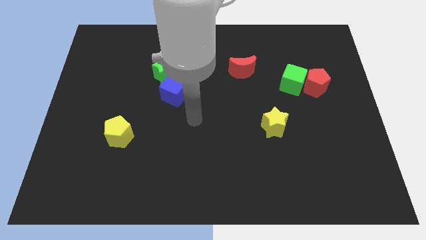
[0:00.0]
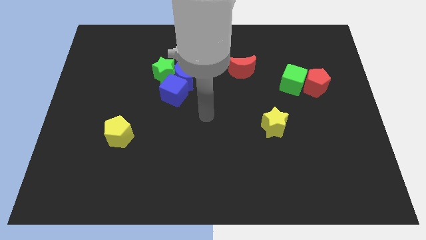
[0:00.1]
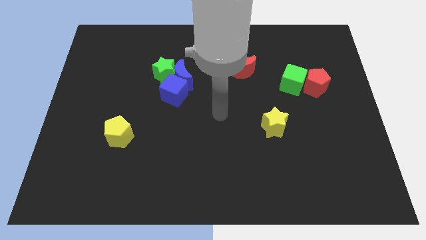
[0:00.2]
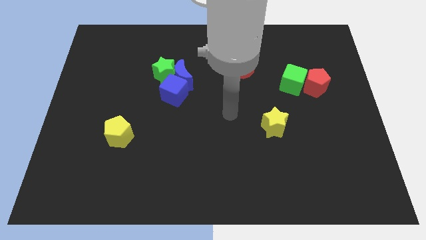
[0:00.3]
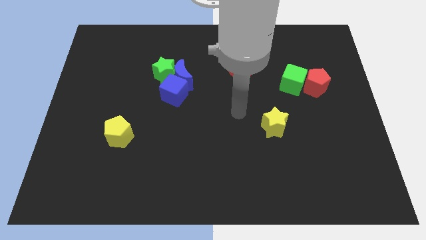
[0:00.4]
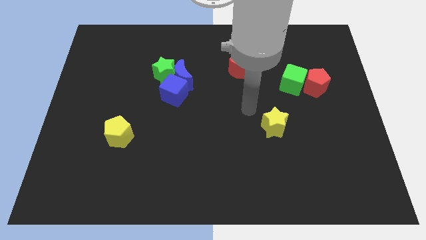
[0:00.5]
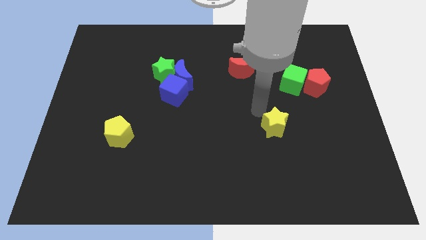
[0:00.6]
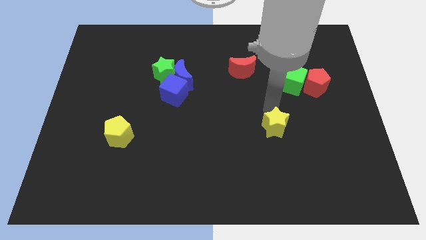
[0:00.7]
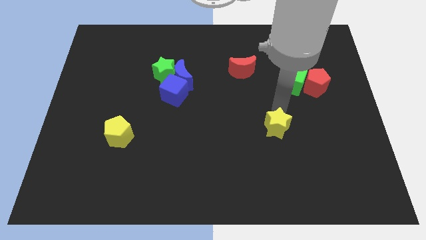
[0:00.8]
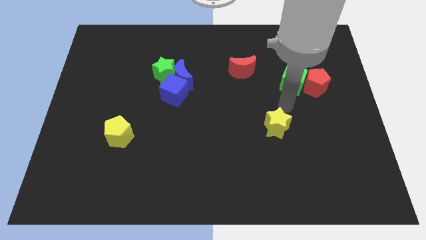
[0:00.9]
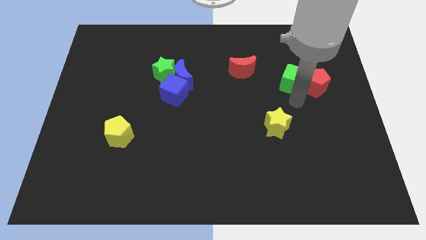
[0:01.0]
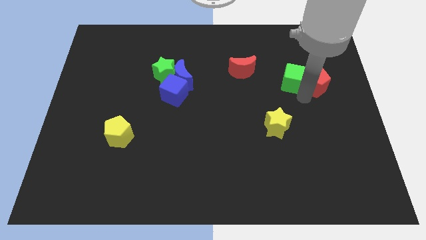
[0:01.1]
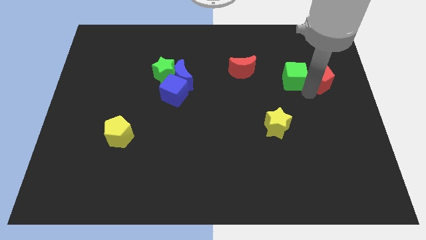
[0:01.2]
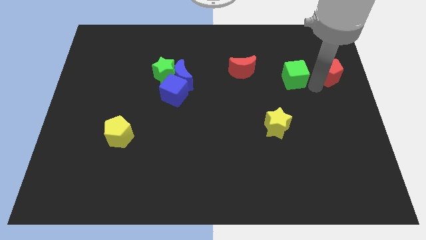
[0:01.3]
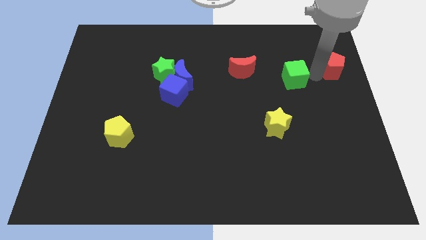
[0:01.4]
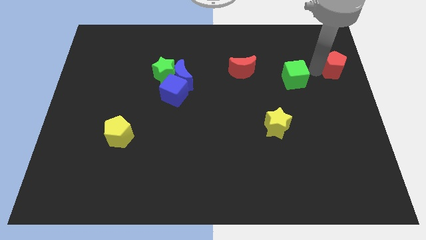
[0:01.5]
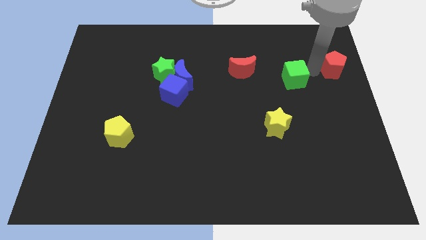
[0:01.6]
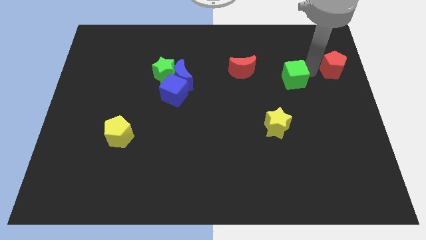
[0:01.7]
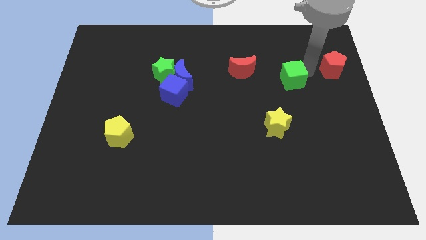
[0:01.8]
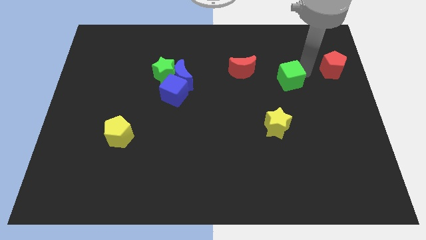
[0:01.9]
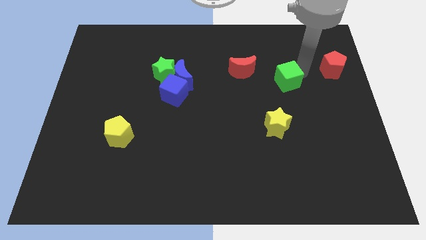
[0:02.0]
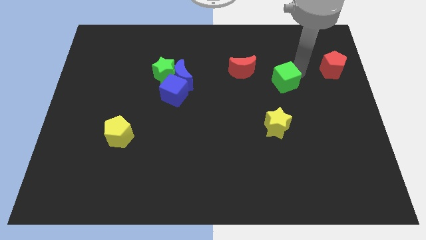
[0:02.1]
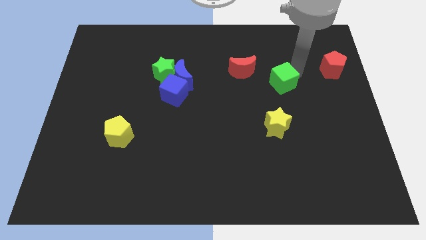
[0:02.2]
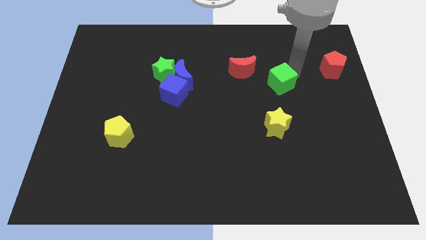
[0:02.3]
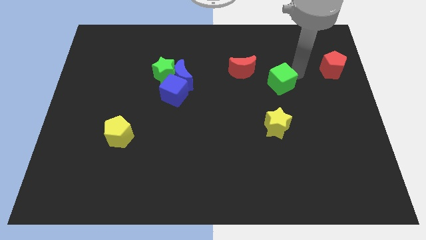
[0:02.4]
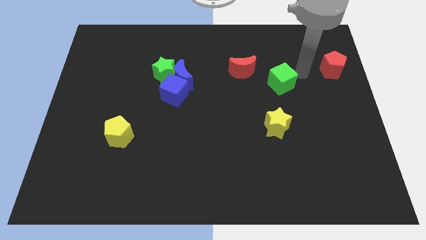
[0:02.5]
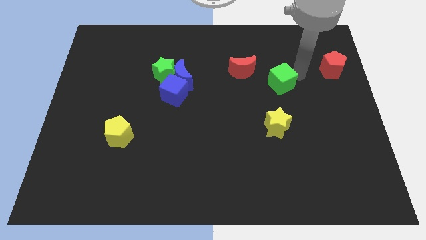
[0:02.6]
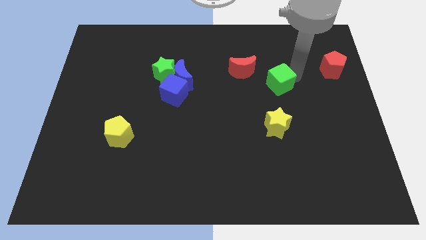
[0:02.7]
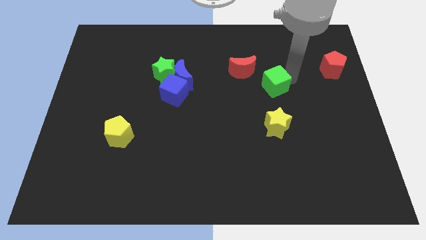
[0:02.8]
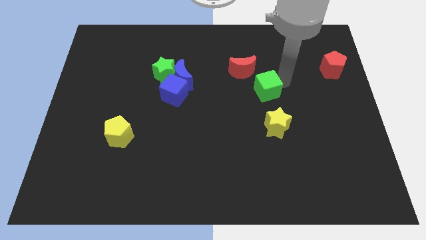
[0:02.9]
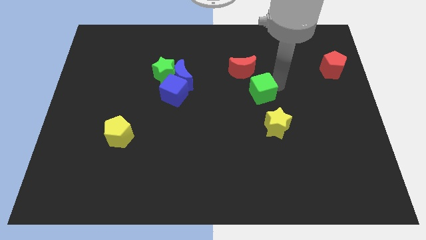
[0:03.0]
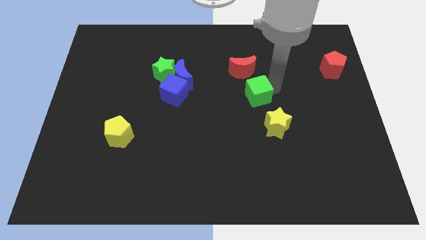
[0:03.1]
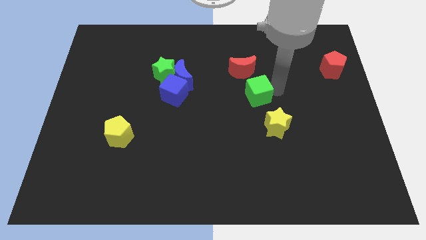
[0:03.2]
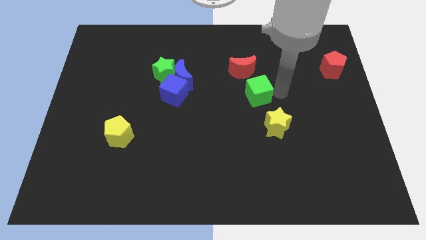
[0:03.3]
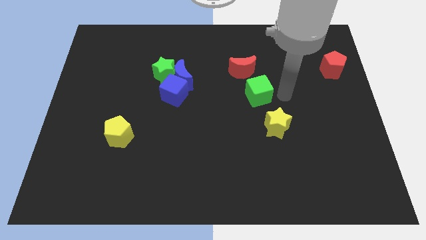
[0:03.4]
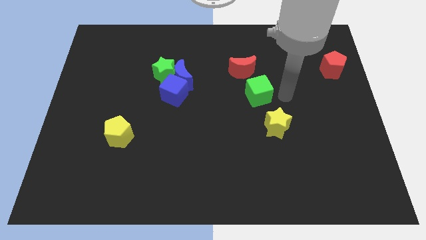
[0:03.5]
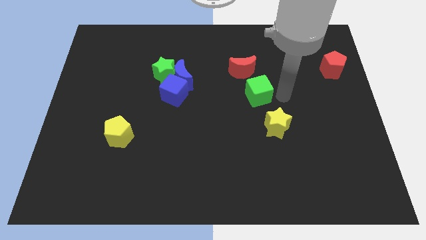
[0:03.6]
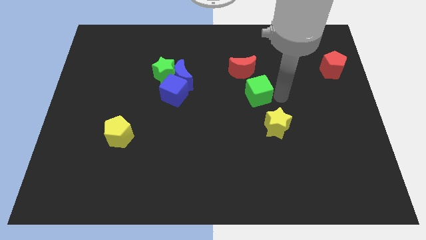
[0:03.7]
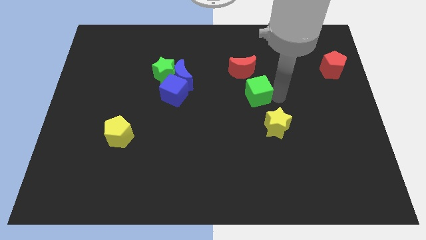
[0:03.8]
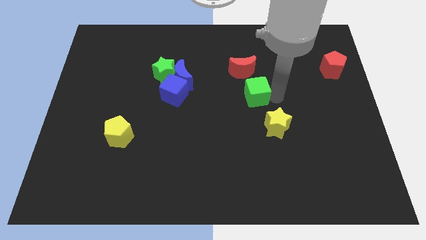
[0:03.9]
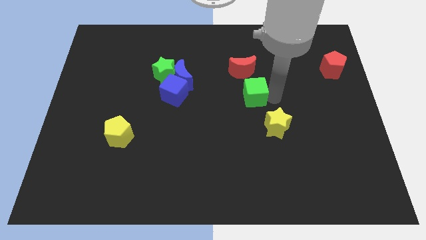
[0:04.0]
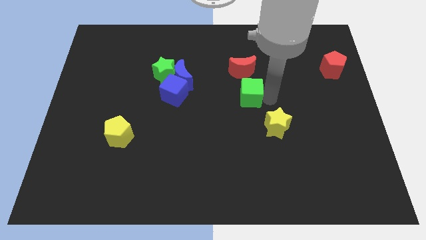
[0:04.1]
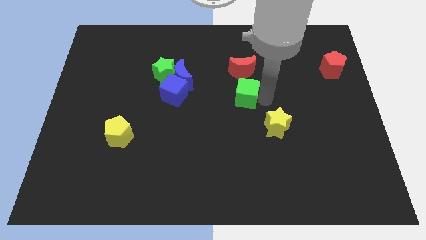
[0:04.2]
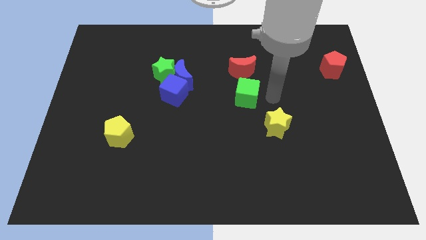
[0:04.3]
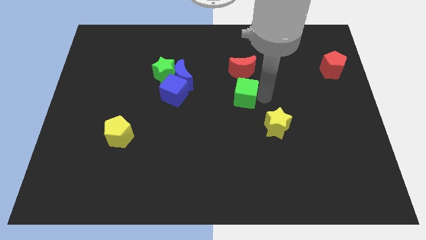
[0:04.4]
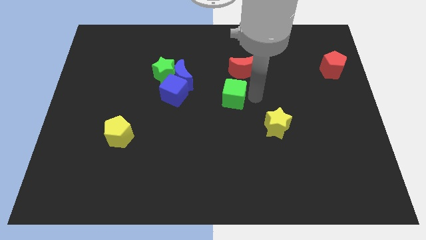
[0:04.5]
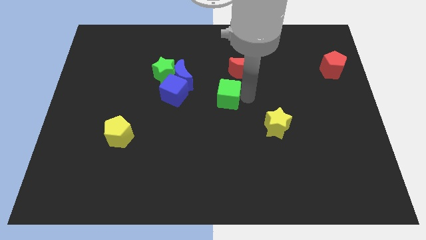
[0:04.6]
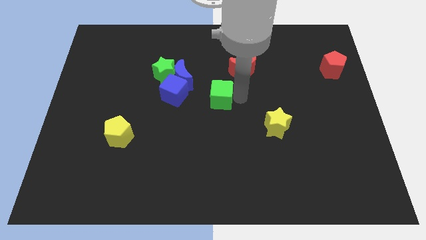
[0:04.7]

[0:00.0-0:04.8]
put the green cube to the bottom right side of the blue moon

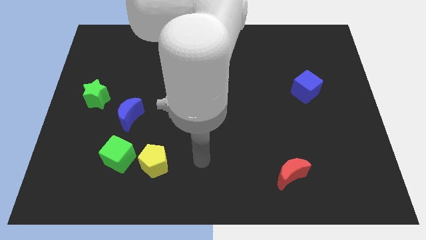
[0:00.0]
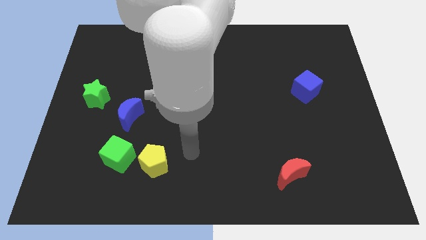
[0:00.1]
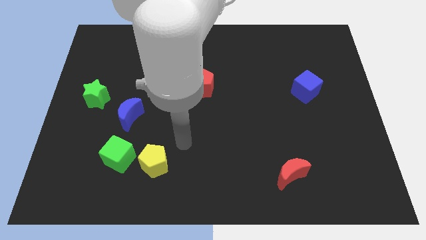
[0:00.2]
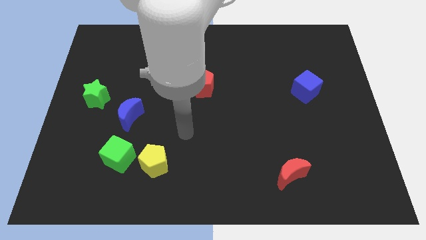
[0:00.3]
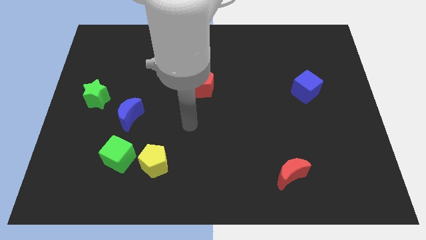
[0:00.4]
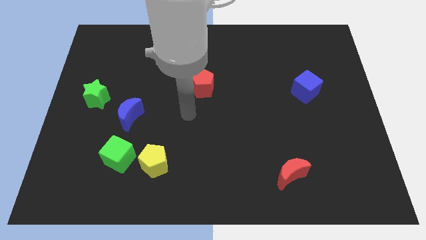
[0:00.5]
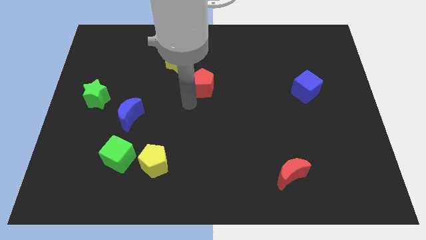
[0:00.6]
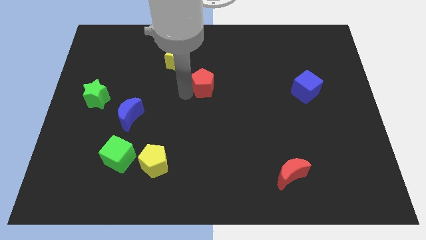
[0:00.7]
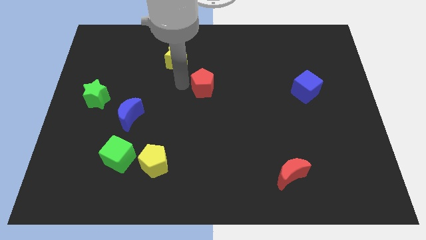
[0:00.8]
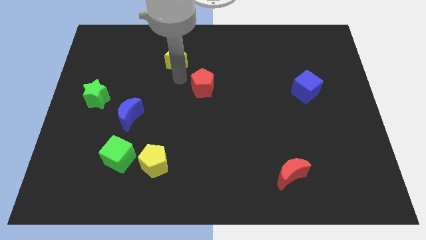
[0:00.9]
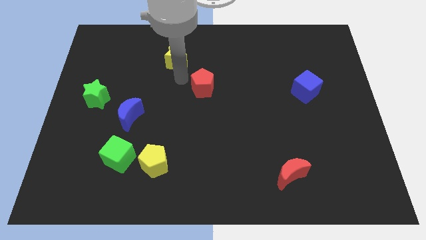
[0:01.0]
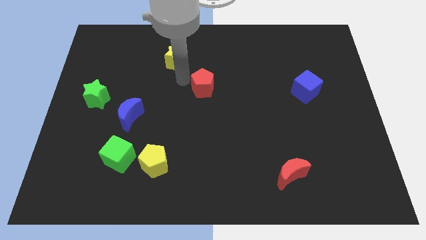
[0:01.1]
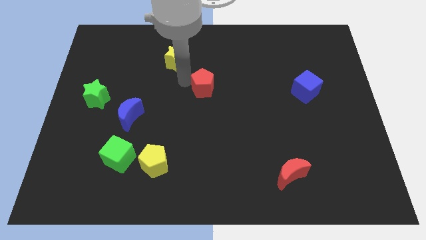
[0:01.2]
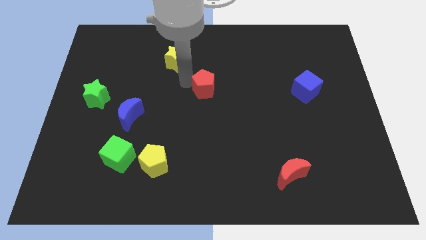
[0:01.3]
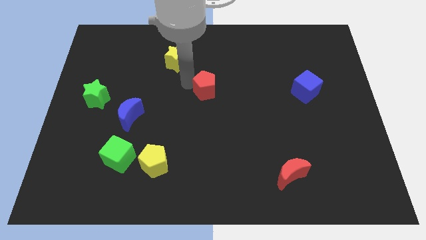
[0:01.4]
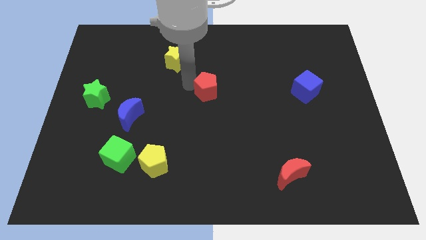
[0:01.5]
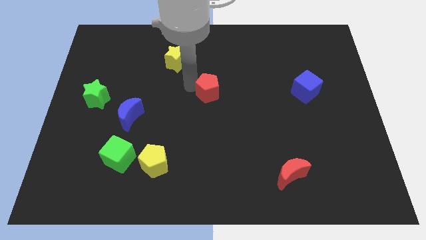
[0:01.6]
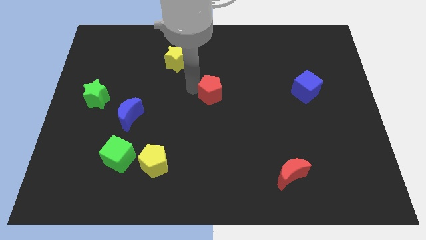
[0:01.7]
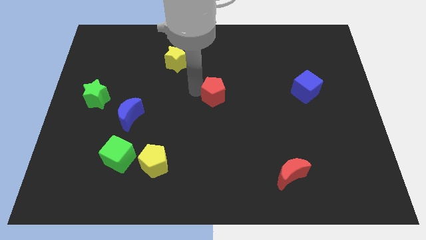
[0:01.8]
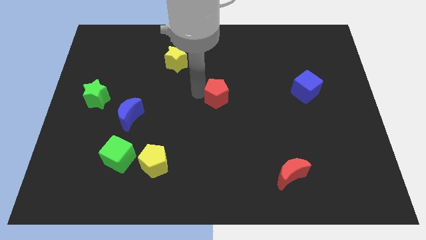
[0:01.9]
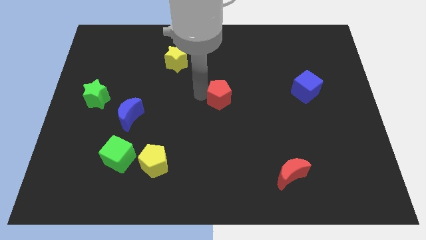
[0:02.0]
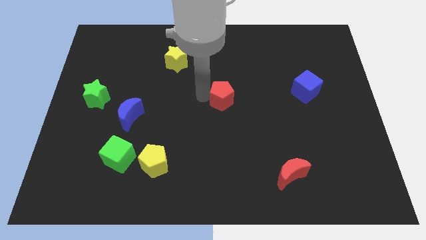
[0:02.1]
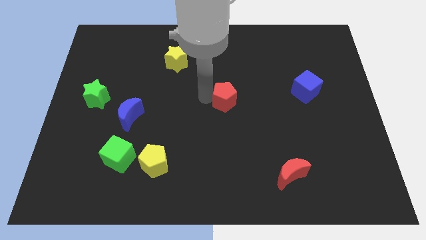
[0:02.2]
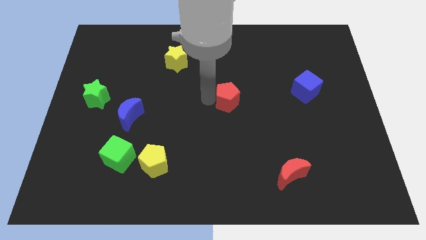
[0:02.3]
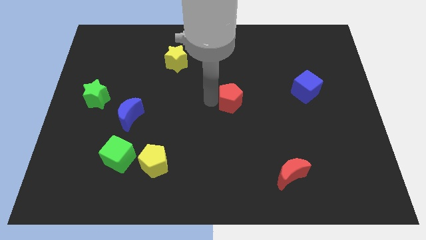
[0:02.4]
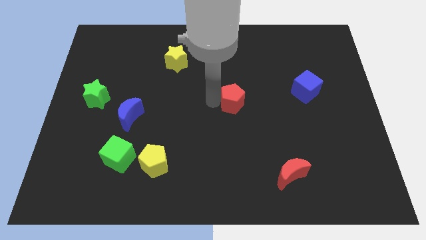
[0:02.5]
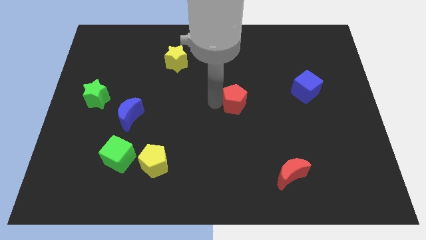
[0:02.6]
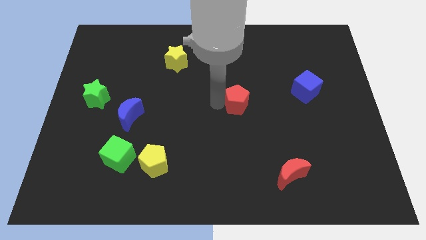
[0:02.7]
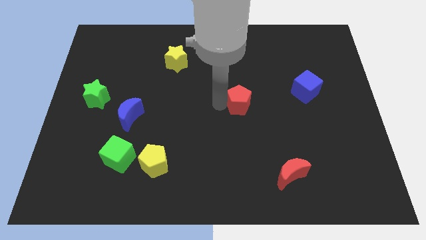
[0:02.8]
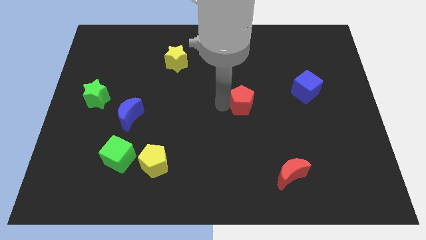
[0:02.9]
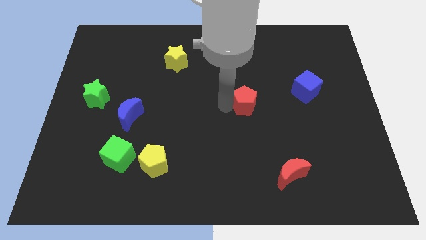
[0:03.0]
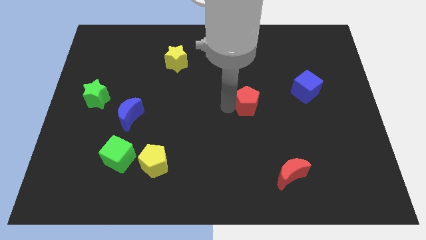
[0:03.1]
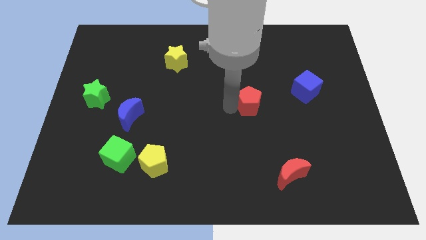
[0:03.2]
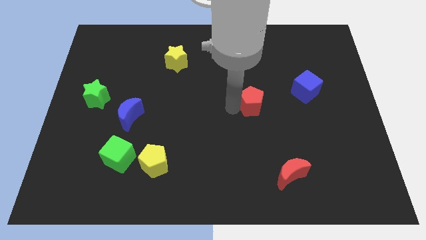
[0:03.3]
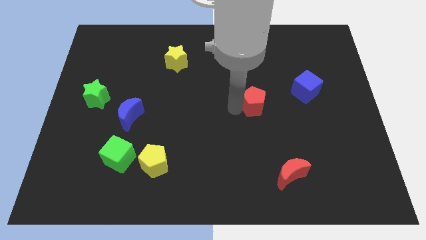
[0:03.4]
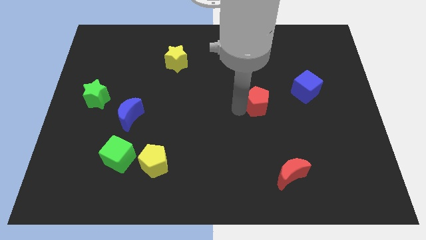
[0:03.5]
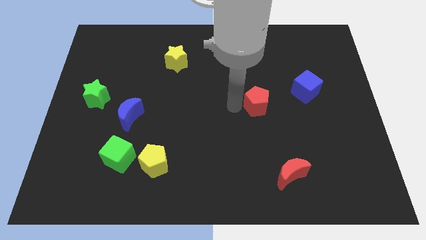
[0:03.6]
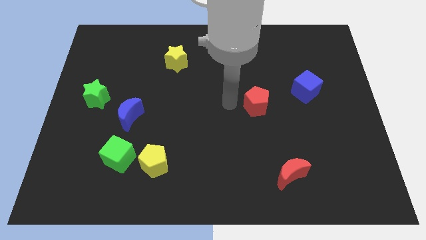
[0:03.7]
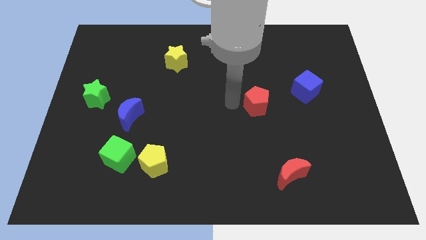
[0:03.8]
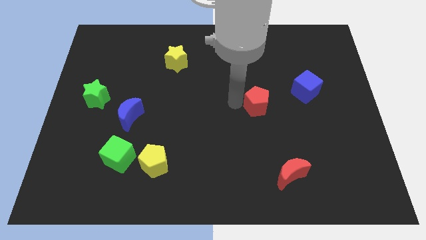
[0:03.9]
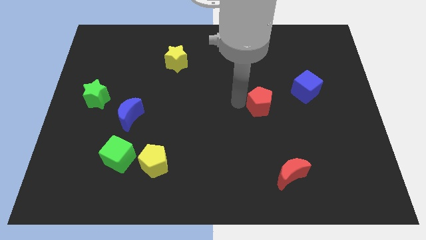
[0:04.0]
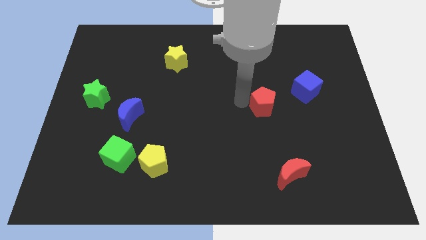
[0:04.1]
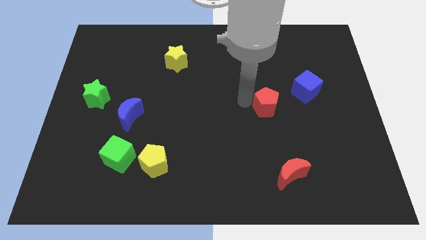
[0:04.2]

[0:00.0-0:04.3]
slide the red pentagon to the bottom left of the blue cube
